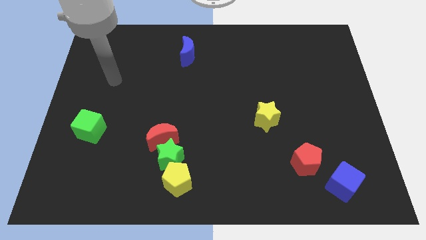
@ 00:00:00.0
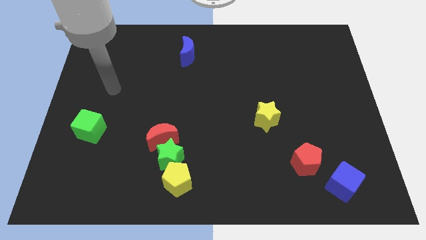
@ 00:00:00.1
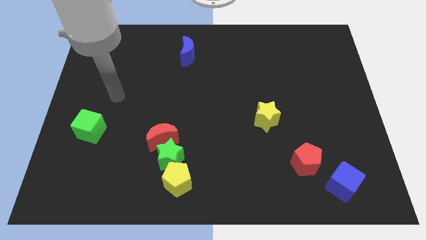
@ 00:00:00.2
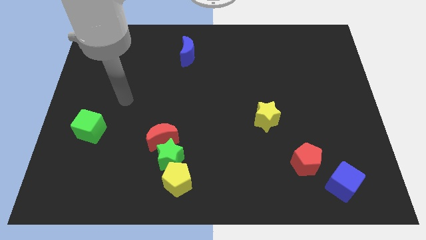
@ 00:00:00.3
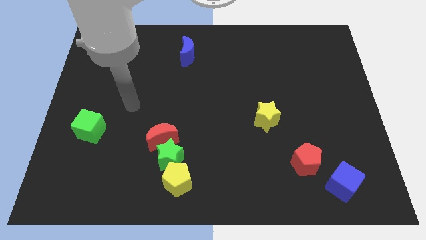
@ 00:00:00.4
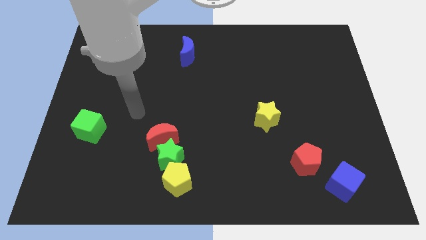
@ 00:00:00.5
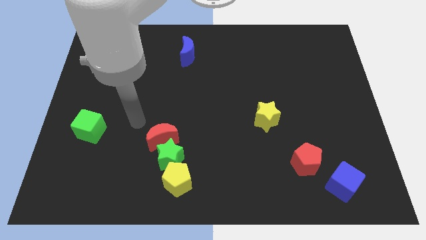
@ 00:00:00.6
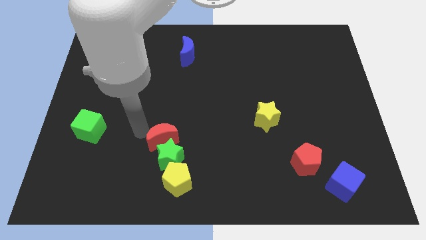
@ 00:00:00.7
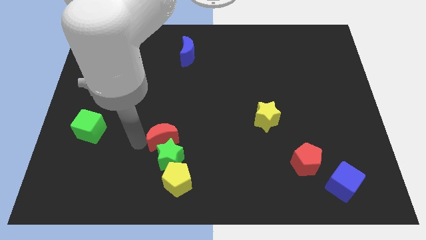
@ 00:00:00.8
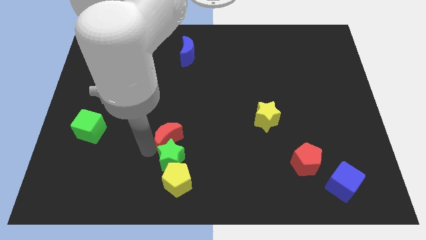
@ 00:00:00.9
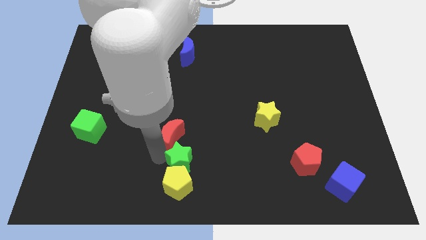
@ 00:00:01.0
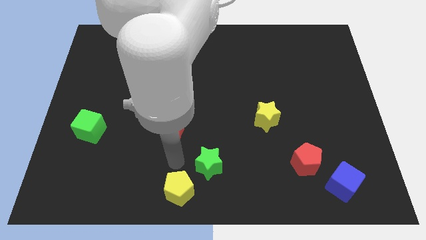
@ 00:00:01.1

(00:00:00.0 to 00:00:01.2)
pull the red moon apart from the green star

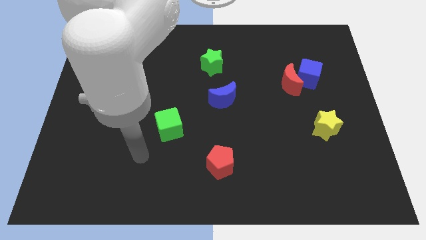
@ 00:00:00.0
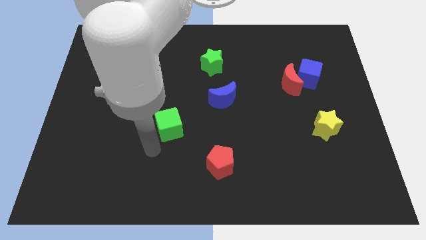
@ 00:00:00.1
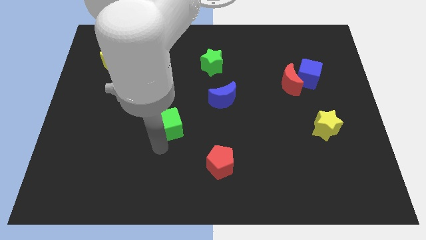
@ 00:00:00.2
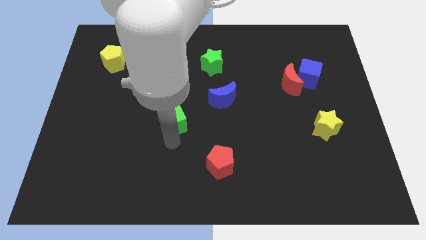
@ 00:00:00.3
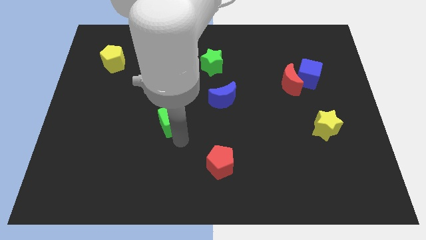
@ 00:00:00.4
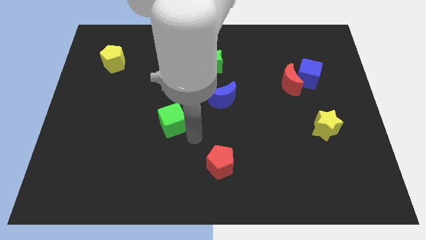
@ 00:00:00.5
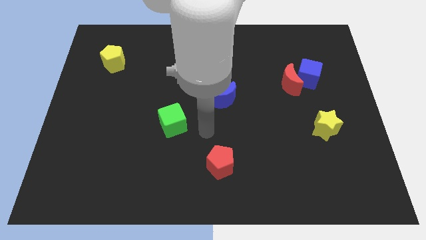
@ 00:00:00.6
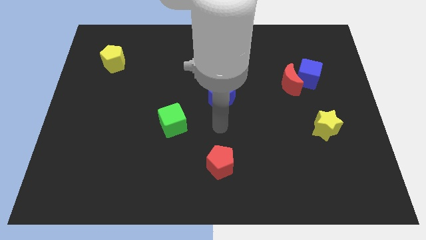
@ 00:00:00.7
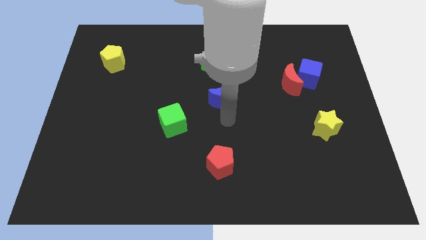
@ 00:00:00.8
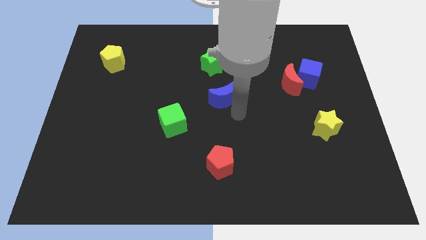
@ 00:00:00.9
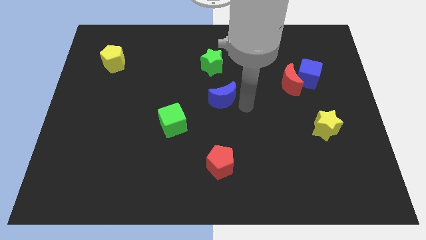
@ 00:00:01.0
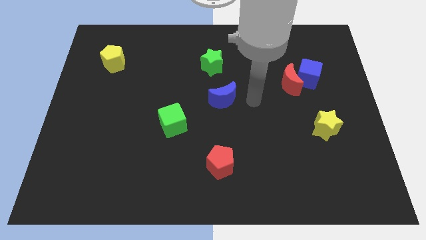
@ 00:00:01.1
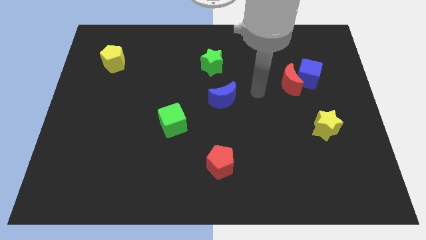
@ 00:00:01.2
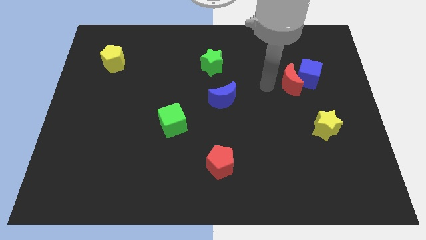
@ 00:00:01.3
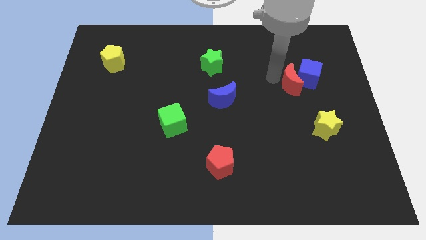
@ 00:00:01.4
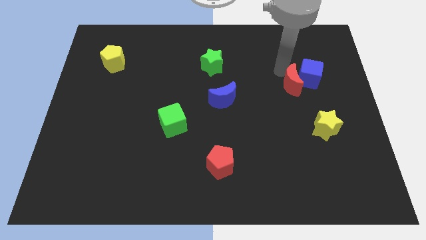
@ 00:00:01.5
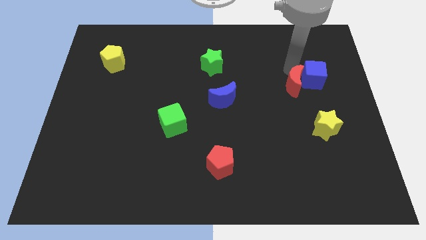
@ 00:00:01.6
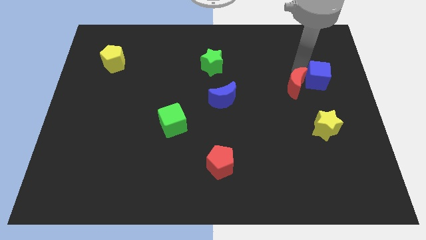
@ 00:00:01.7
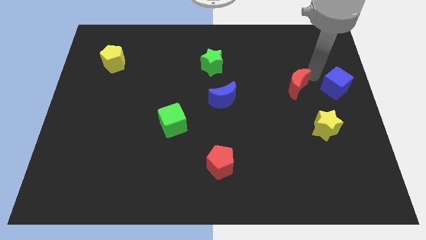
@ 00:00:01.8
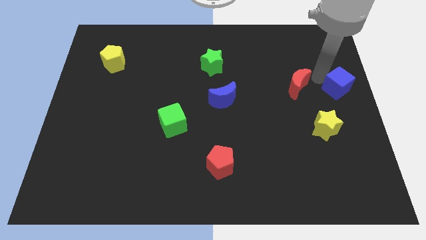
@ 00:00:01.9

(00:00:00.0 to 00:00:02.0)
separate the red moon from the blue cube

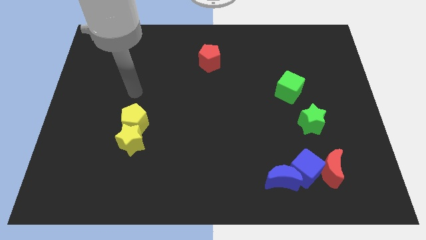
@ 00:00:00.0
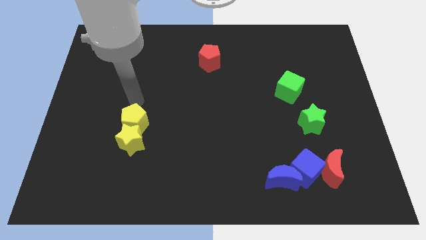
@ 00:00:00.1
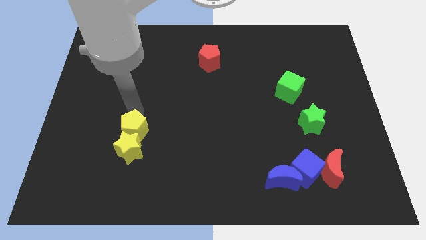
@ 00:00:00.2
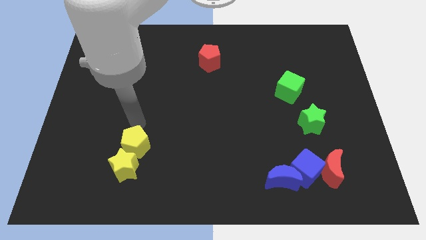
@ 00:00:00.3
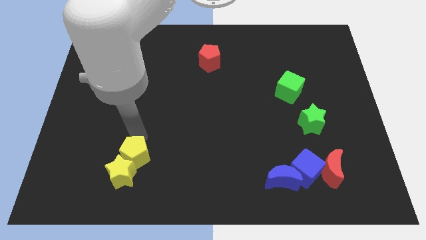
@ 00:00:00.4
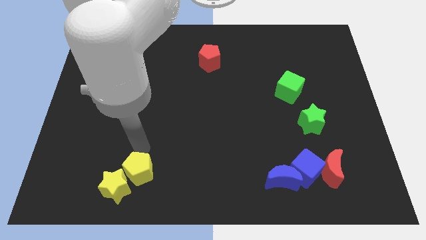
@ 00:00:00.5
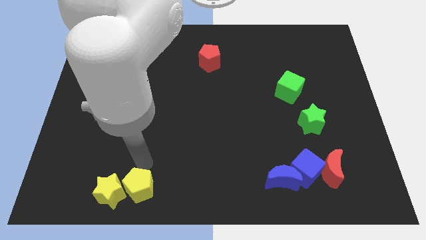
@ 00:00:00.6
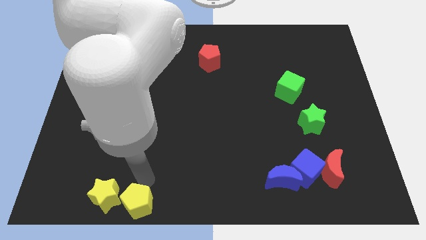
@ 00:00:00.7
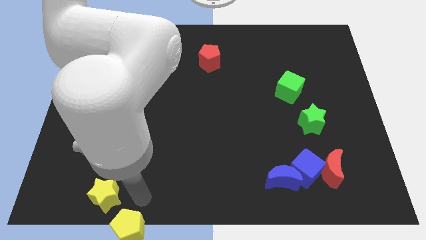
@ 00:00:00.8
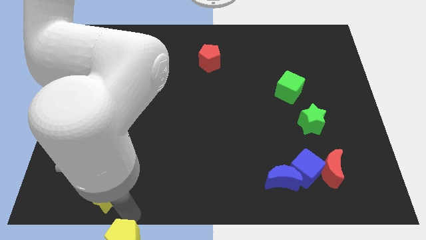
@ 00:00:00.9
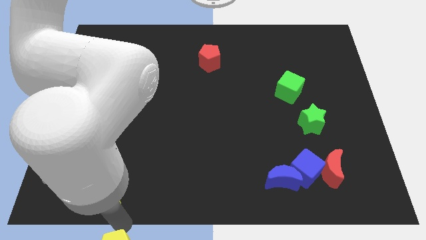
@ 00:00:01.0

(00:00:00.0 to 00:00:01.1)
separate the yellow star from the yellow pentagon

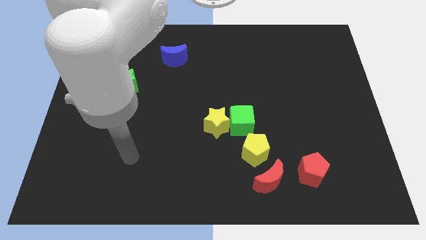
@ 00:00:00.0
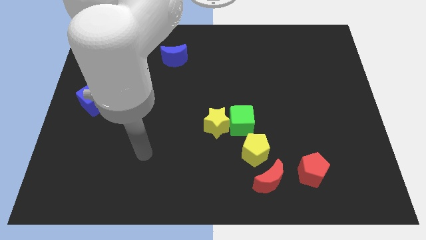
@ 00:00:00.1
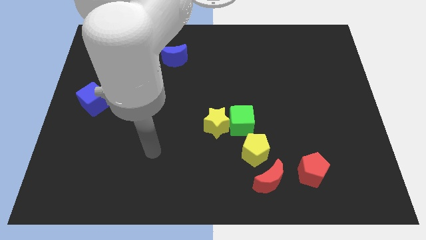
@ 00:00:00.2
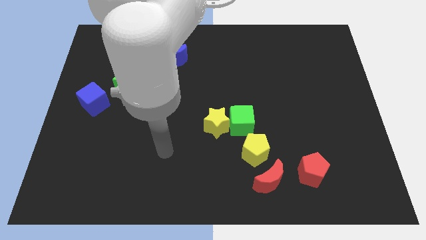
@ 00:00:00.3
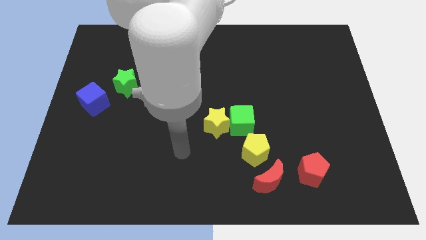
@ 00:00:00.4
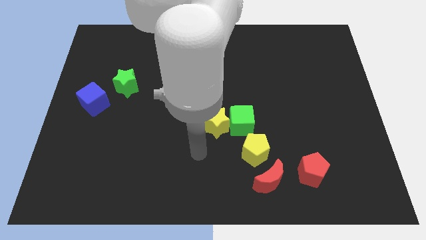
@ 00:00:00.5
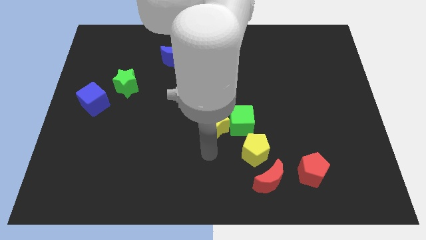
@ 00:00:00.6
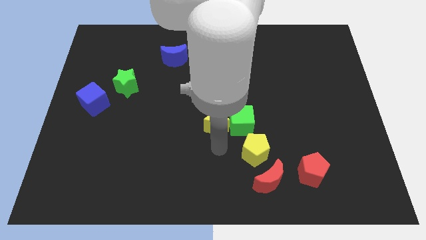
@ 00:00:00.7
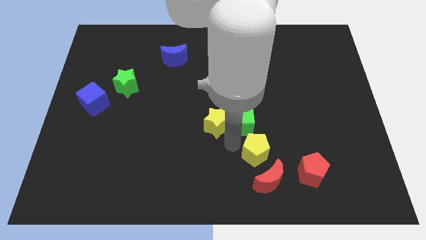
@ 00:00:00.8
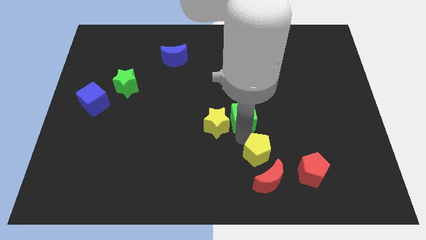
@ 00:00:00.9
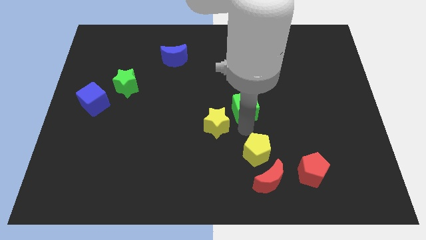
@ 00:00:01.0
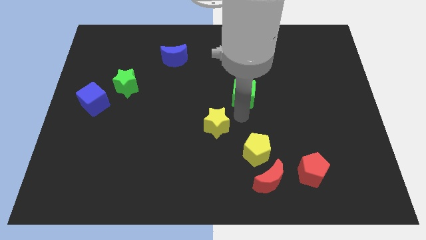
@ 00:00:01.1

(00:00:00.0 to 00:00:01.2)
separate the yellow star from the green cube

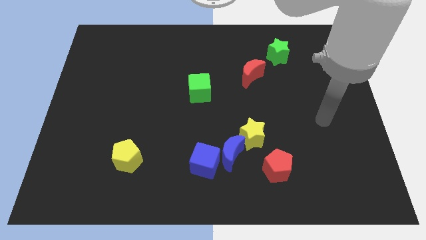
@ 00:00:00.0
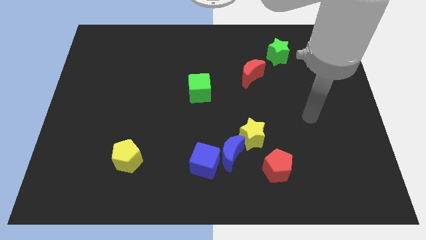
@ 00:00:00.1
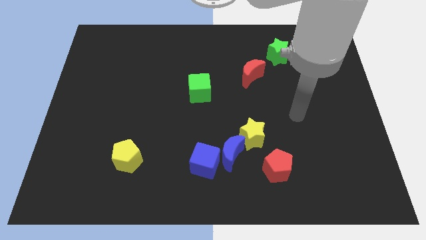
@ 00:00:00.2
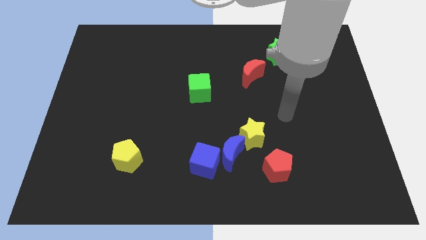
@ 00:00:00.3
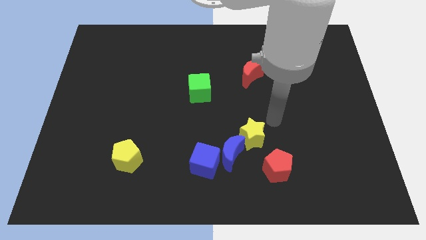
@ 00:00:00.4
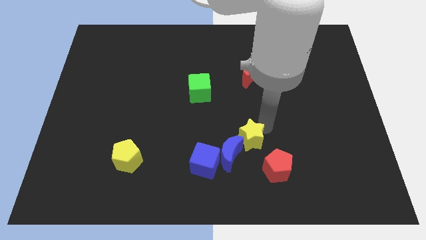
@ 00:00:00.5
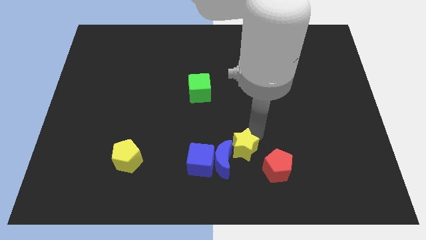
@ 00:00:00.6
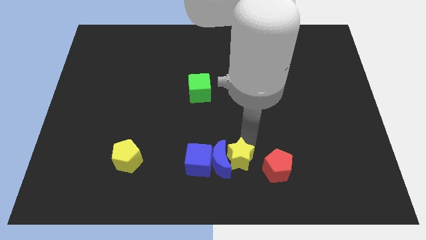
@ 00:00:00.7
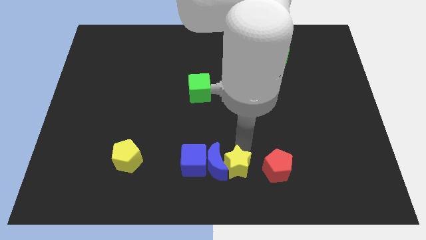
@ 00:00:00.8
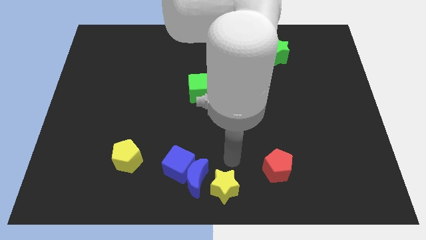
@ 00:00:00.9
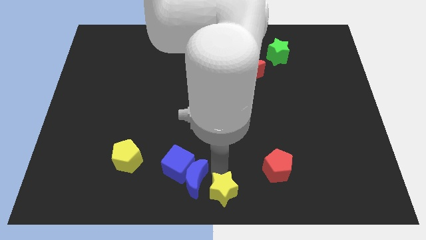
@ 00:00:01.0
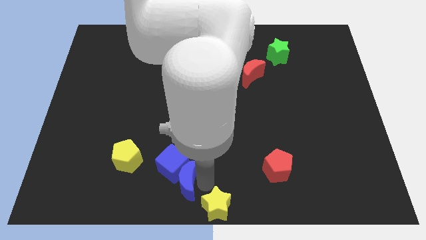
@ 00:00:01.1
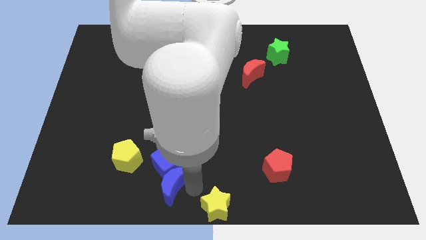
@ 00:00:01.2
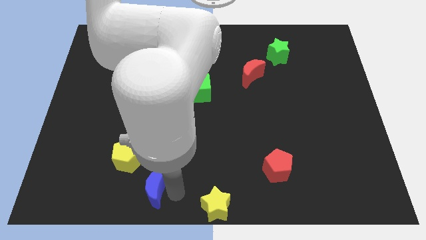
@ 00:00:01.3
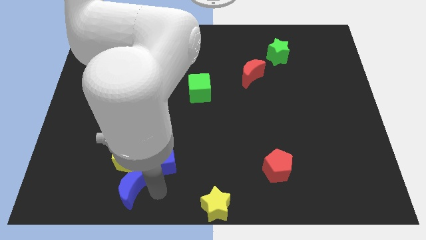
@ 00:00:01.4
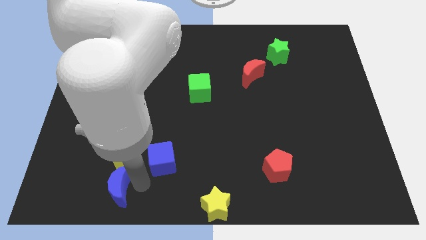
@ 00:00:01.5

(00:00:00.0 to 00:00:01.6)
move the blue cube away from the blue moon

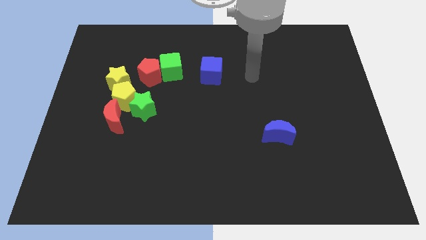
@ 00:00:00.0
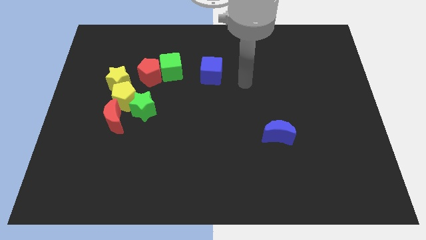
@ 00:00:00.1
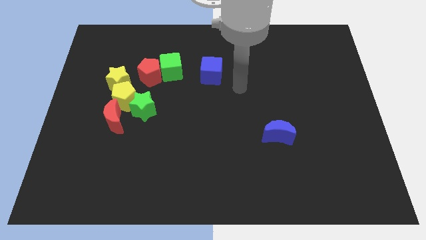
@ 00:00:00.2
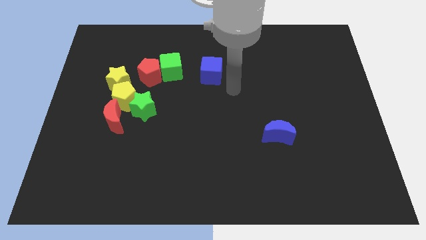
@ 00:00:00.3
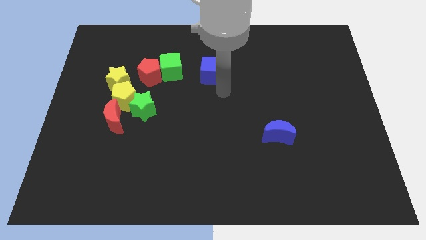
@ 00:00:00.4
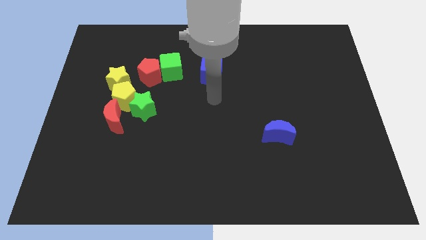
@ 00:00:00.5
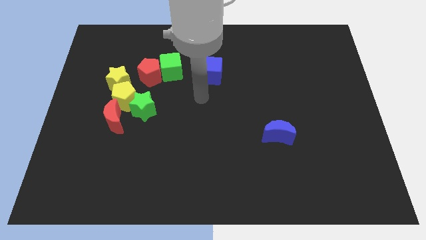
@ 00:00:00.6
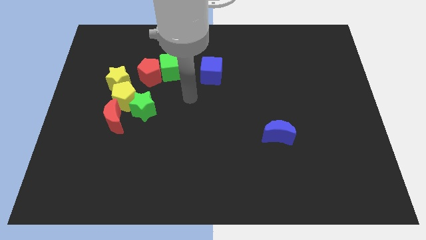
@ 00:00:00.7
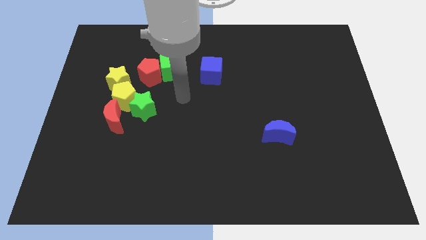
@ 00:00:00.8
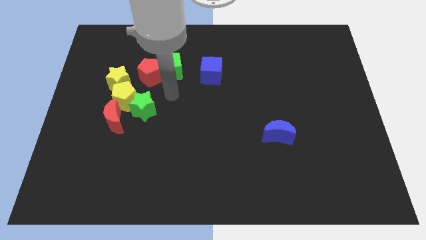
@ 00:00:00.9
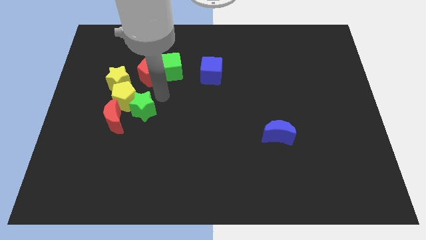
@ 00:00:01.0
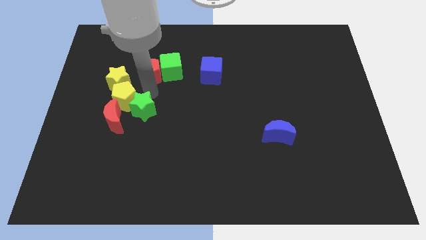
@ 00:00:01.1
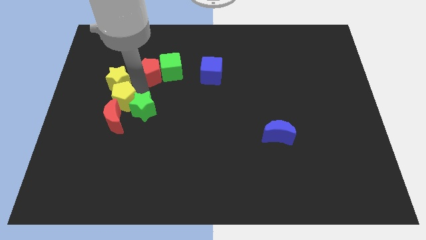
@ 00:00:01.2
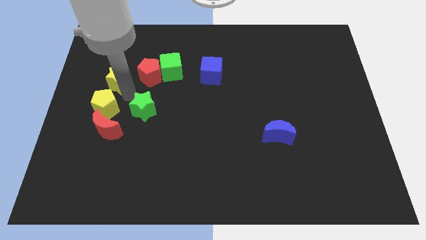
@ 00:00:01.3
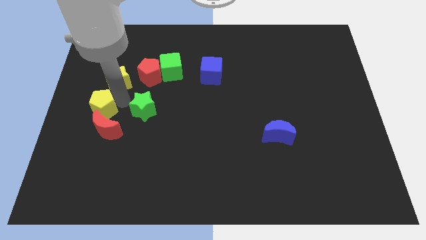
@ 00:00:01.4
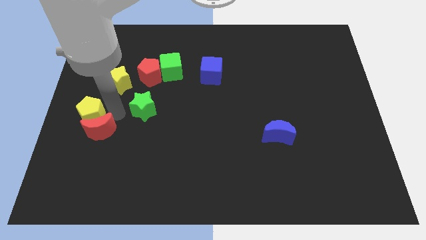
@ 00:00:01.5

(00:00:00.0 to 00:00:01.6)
pull the green star apart from the yellow pentagon and red moon

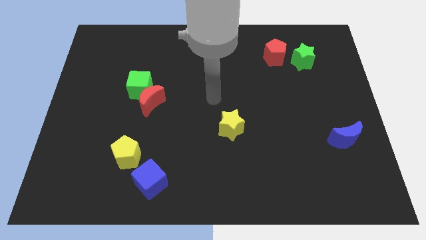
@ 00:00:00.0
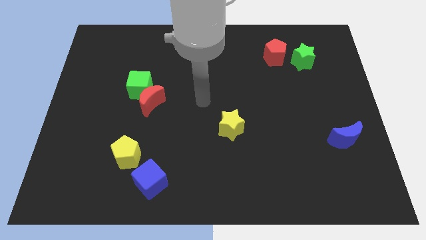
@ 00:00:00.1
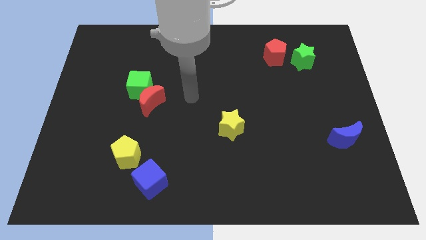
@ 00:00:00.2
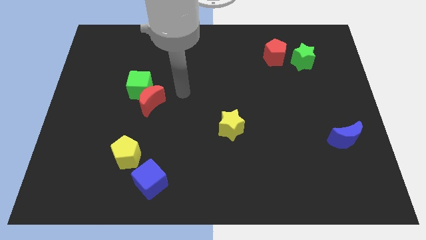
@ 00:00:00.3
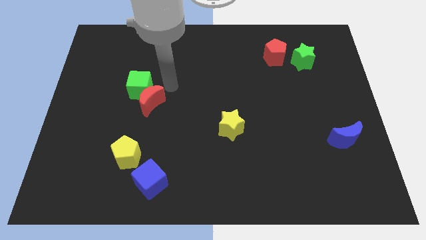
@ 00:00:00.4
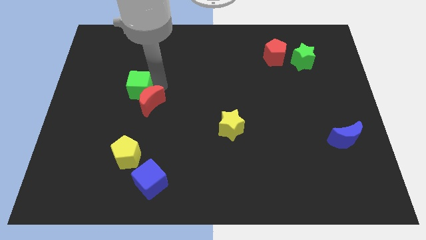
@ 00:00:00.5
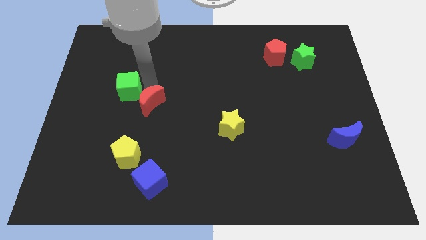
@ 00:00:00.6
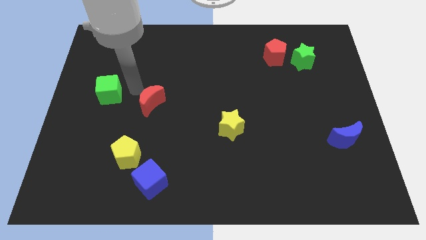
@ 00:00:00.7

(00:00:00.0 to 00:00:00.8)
pull the red moon apart from the green cube
